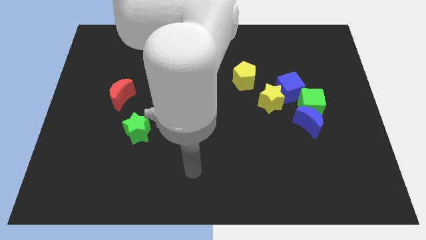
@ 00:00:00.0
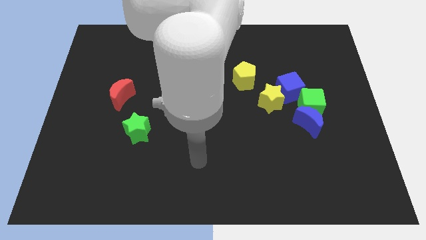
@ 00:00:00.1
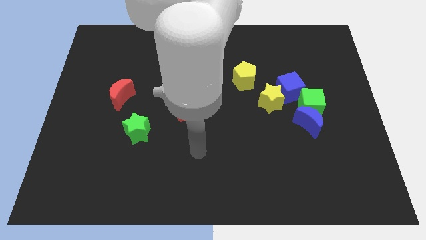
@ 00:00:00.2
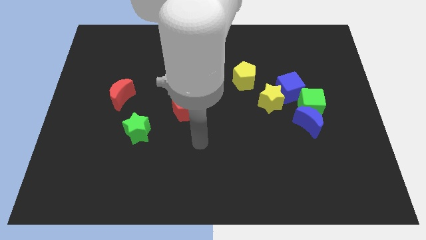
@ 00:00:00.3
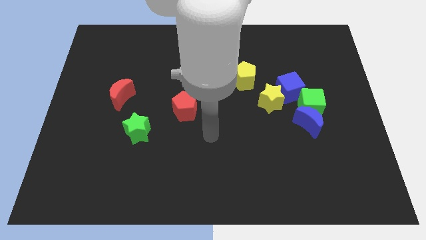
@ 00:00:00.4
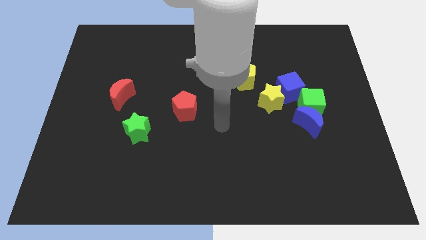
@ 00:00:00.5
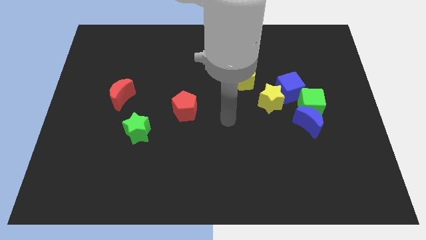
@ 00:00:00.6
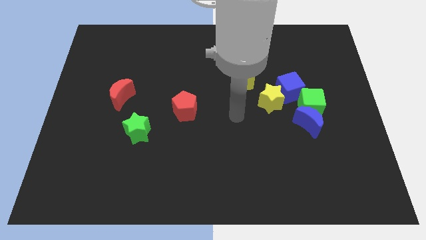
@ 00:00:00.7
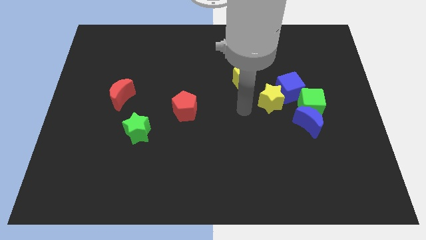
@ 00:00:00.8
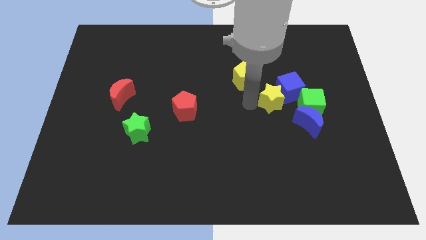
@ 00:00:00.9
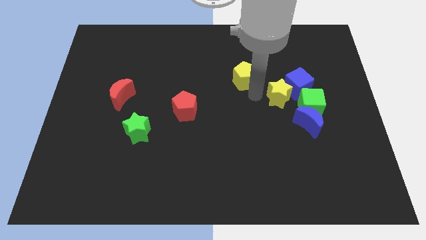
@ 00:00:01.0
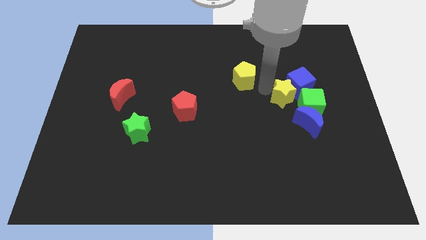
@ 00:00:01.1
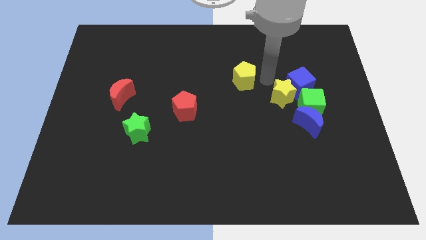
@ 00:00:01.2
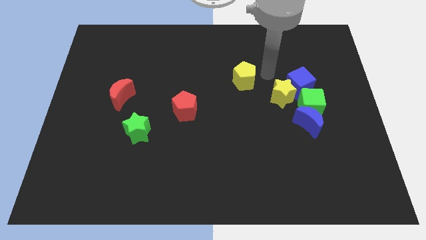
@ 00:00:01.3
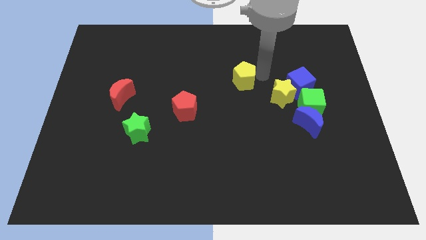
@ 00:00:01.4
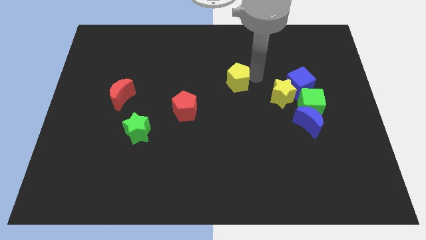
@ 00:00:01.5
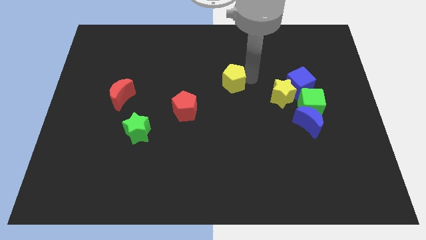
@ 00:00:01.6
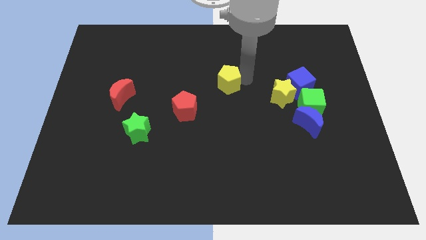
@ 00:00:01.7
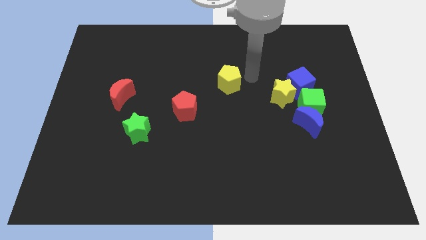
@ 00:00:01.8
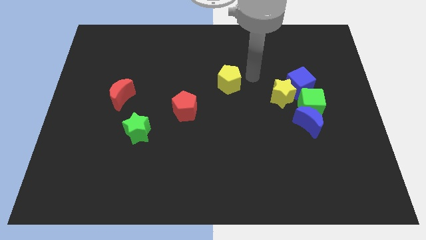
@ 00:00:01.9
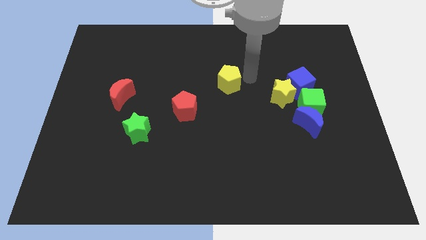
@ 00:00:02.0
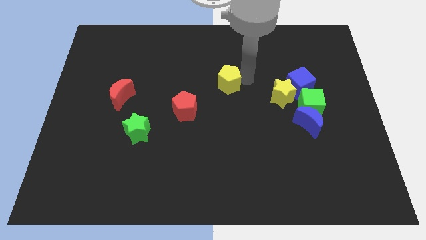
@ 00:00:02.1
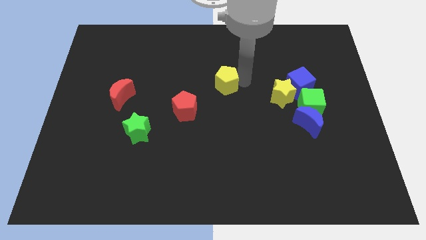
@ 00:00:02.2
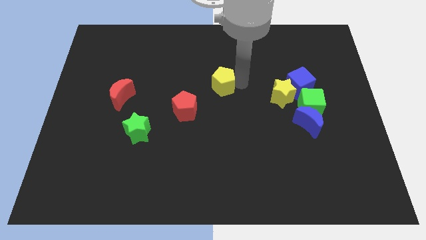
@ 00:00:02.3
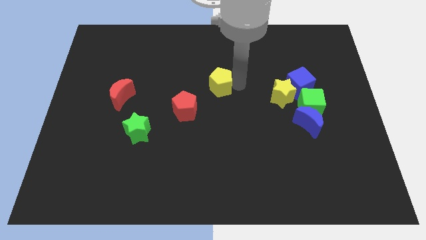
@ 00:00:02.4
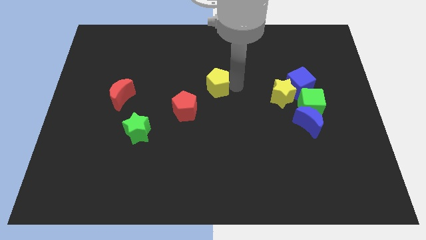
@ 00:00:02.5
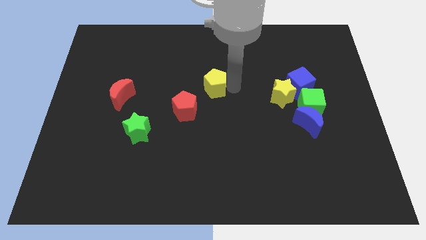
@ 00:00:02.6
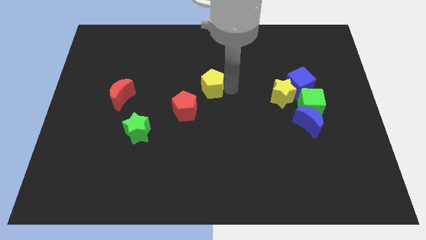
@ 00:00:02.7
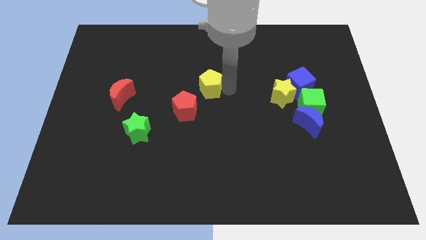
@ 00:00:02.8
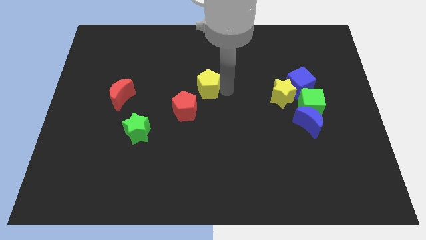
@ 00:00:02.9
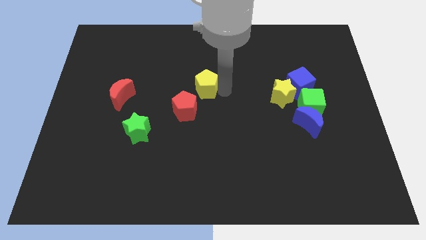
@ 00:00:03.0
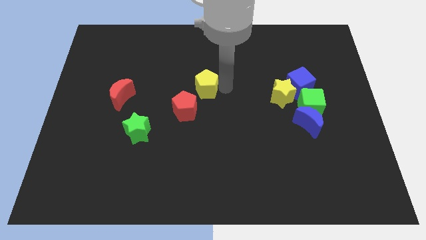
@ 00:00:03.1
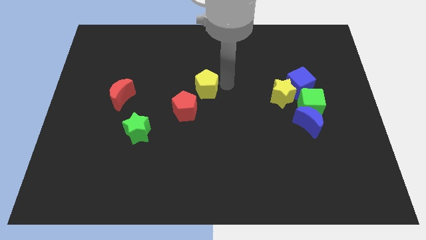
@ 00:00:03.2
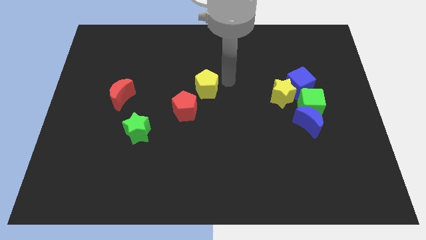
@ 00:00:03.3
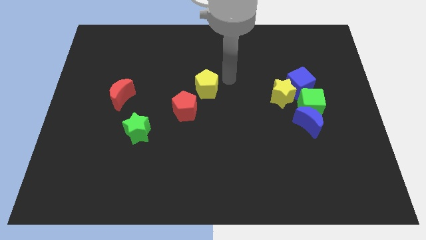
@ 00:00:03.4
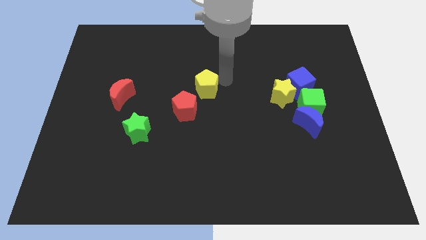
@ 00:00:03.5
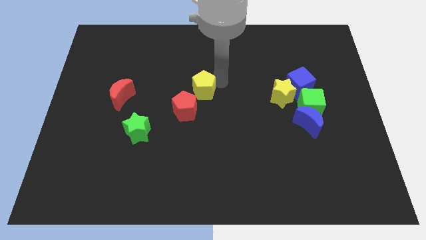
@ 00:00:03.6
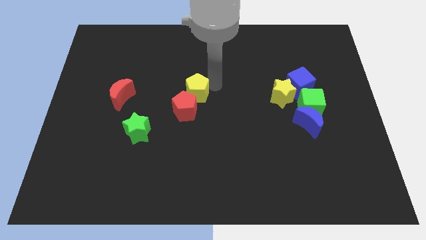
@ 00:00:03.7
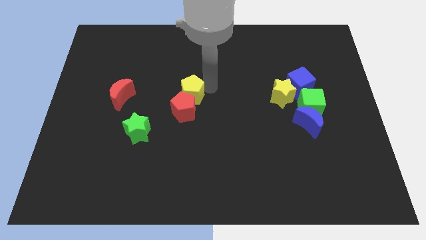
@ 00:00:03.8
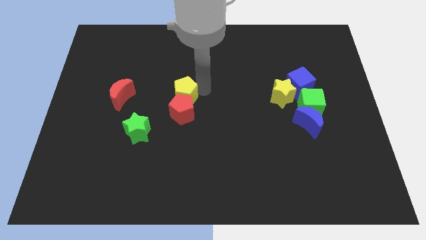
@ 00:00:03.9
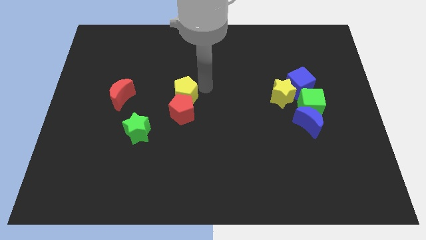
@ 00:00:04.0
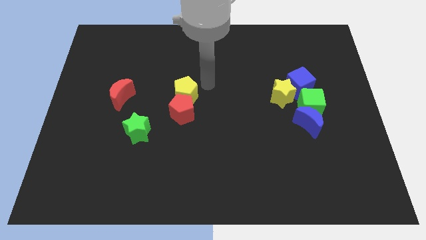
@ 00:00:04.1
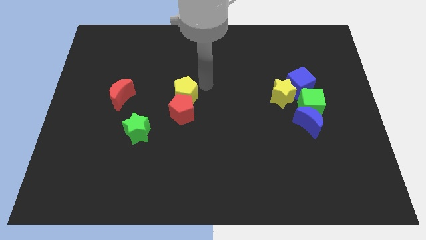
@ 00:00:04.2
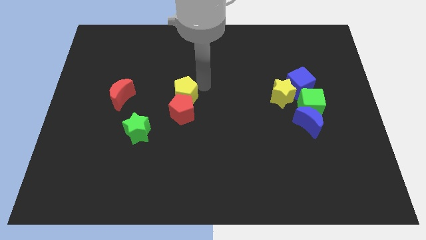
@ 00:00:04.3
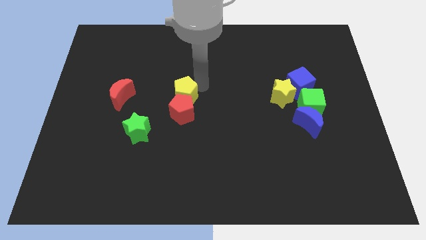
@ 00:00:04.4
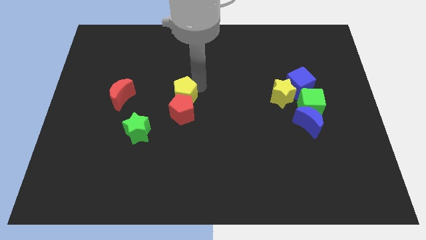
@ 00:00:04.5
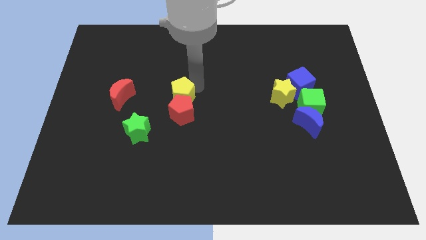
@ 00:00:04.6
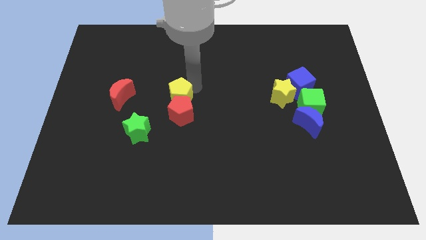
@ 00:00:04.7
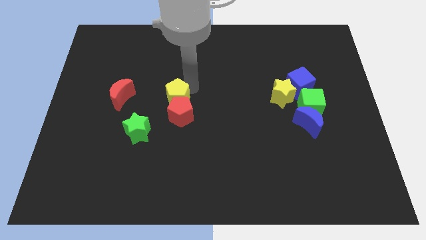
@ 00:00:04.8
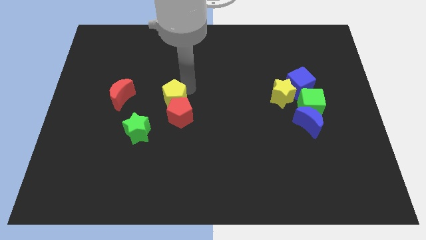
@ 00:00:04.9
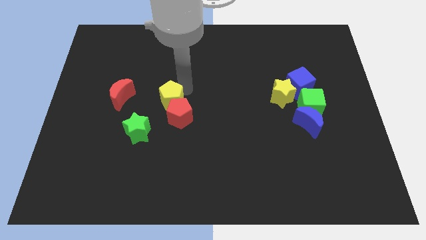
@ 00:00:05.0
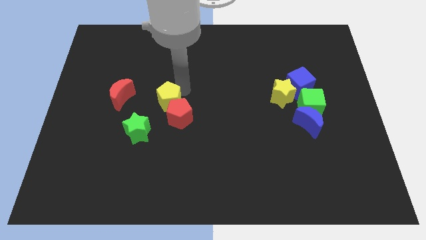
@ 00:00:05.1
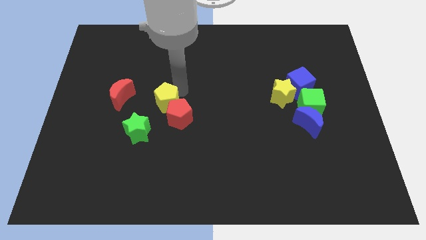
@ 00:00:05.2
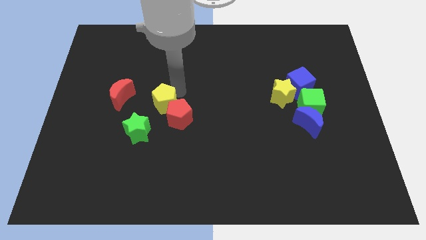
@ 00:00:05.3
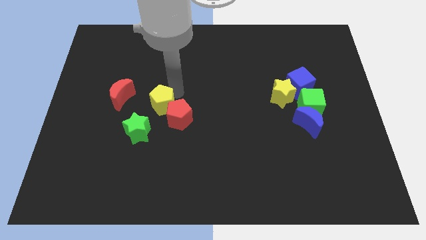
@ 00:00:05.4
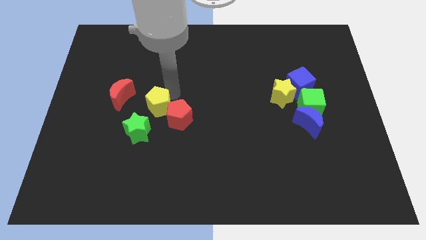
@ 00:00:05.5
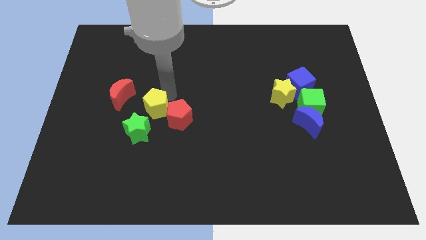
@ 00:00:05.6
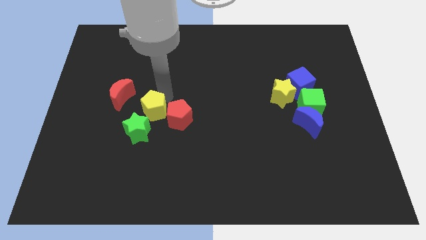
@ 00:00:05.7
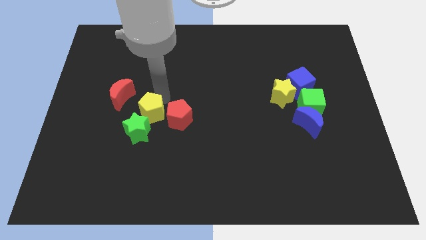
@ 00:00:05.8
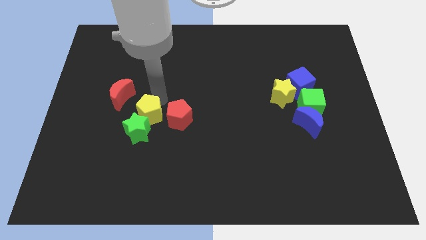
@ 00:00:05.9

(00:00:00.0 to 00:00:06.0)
slide the yellow pentagon close to the green star

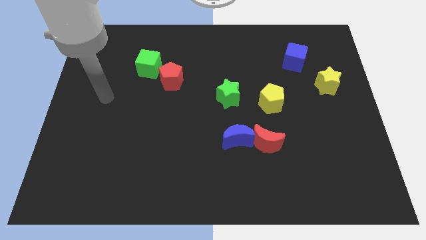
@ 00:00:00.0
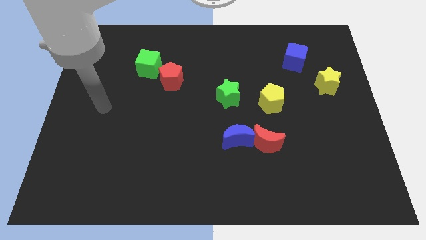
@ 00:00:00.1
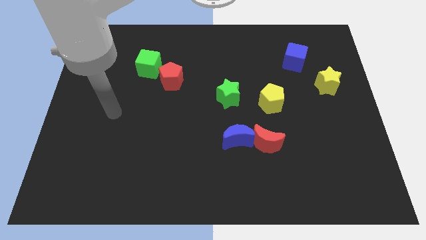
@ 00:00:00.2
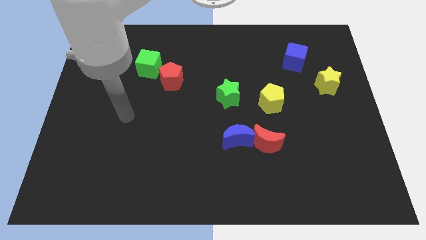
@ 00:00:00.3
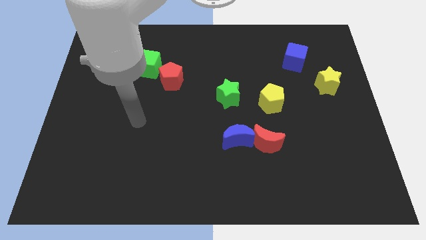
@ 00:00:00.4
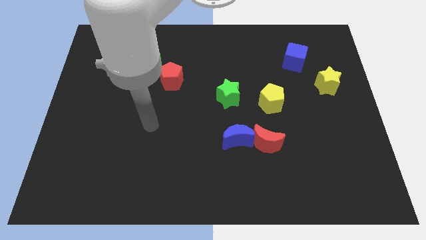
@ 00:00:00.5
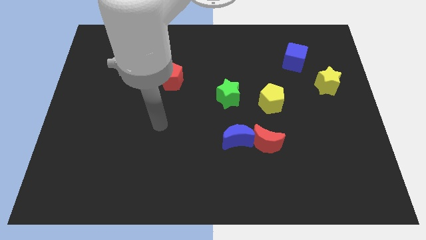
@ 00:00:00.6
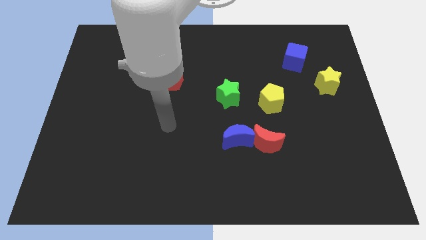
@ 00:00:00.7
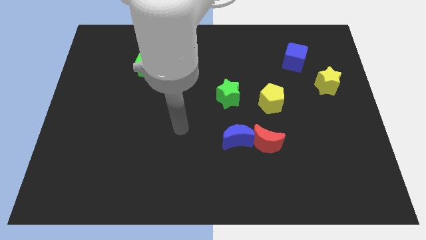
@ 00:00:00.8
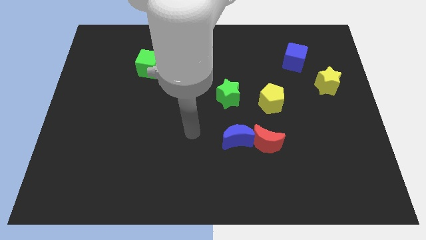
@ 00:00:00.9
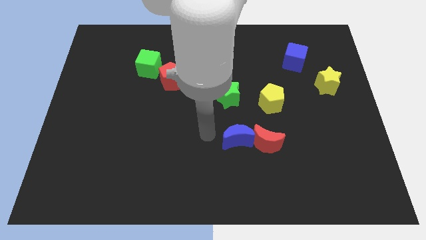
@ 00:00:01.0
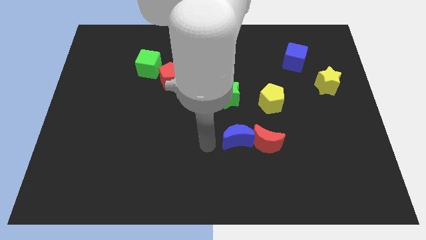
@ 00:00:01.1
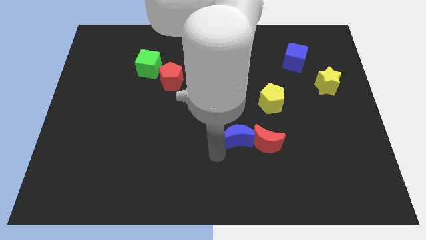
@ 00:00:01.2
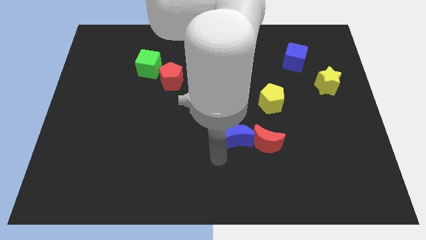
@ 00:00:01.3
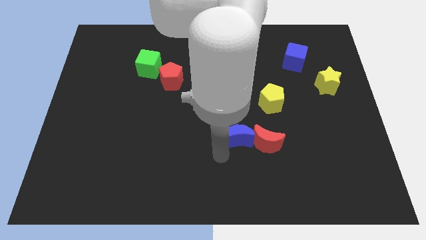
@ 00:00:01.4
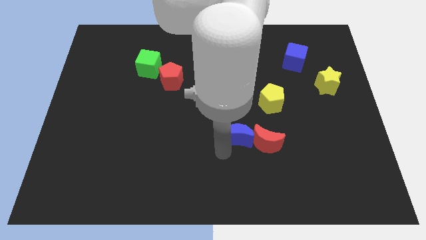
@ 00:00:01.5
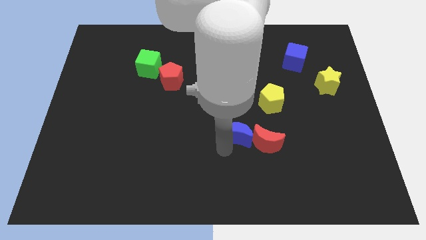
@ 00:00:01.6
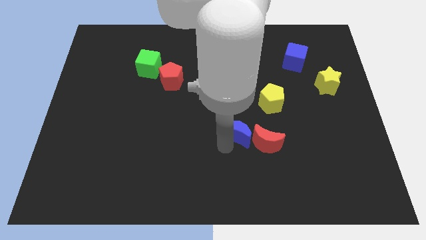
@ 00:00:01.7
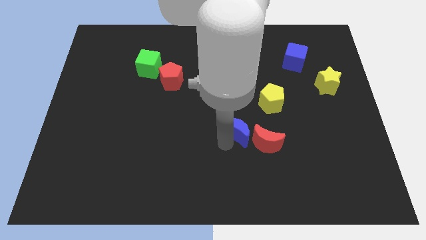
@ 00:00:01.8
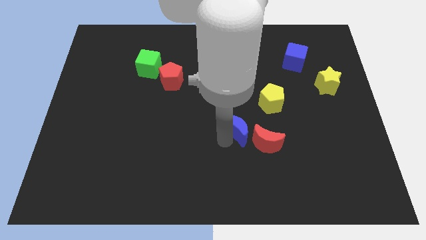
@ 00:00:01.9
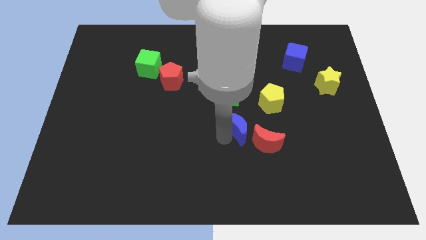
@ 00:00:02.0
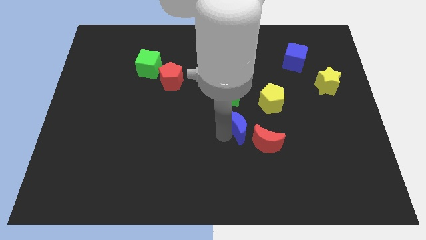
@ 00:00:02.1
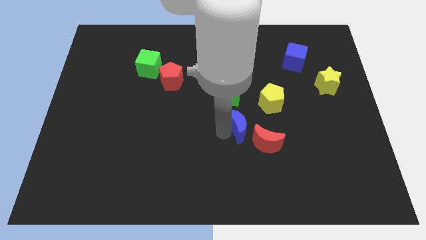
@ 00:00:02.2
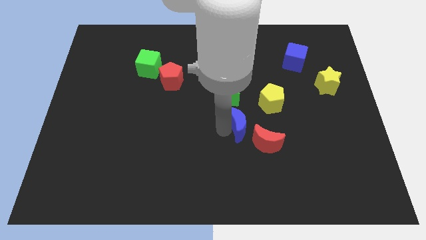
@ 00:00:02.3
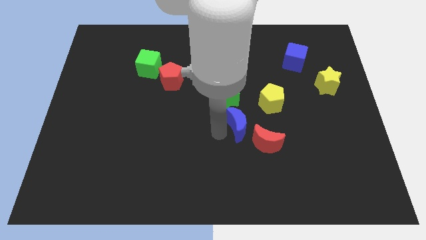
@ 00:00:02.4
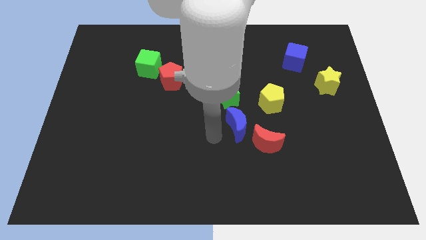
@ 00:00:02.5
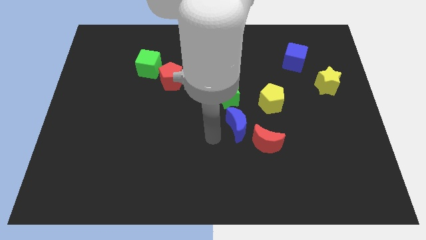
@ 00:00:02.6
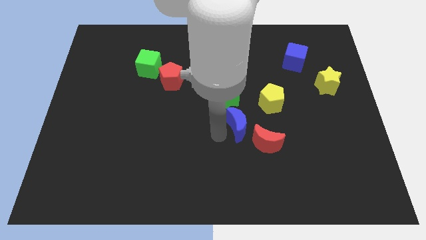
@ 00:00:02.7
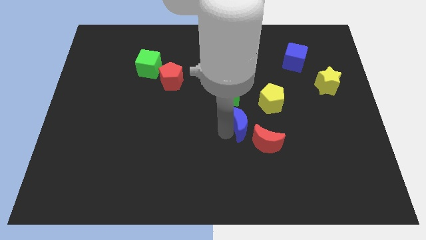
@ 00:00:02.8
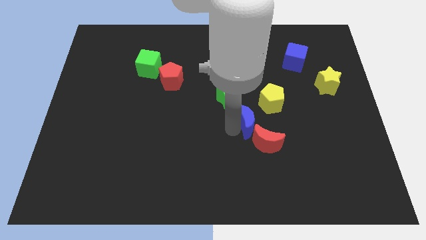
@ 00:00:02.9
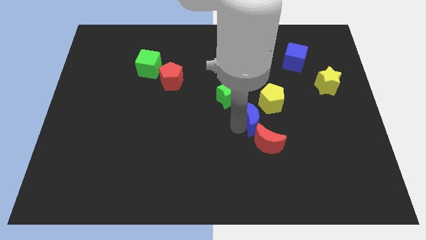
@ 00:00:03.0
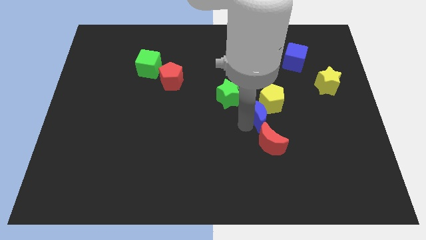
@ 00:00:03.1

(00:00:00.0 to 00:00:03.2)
push the blue moon towards the yellow pentagon
